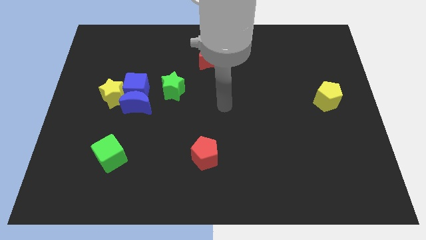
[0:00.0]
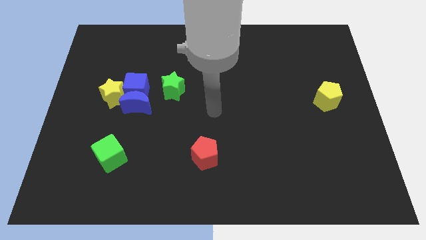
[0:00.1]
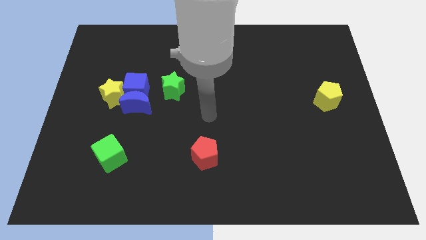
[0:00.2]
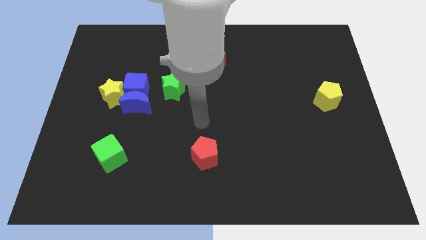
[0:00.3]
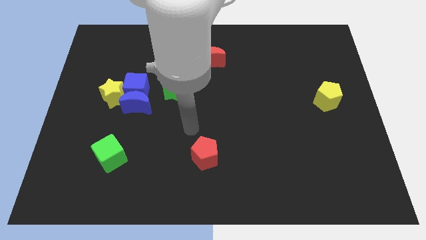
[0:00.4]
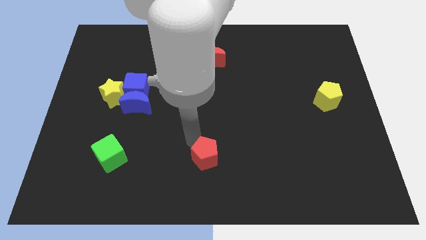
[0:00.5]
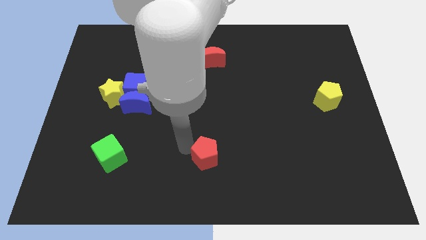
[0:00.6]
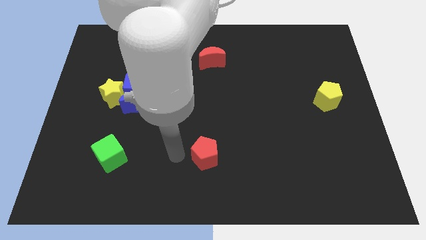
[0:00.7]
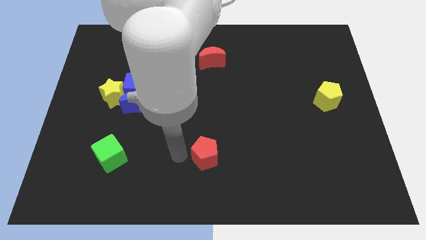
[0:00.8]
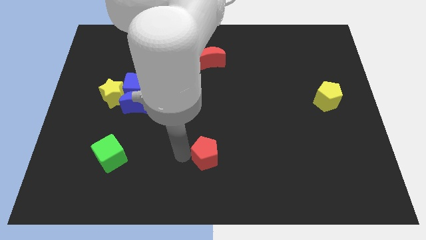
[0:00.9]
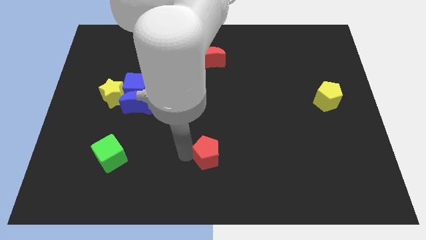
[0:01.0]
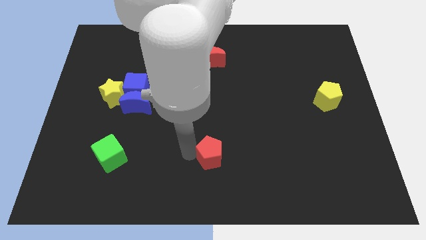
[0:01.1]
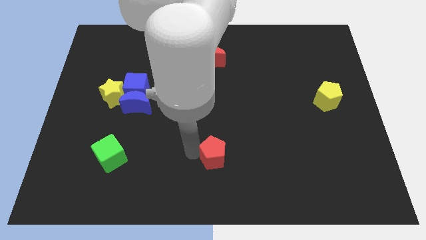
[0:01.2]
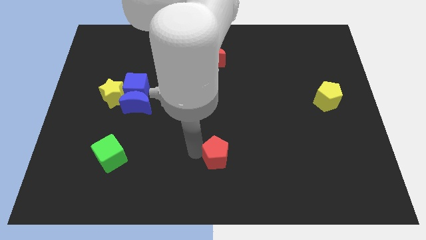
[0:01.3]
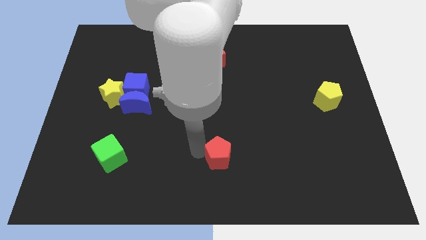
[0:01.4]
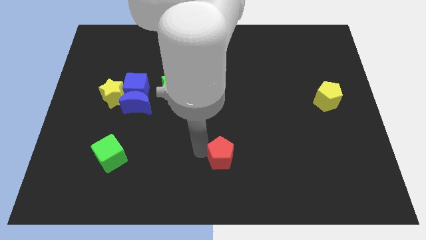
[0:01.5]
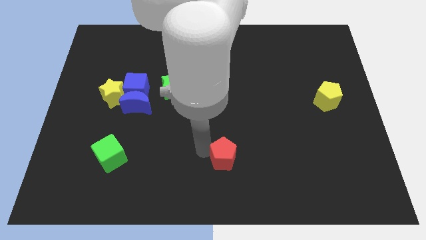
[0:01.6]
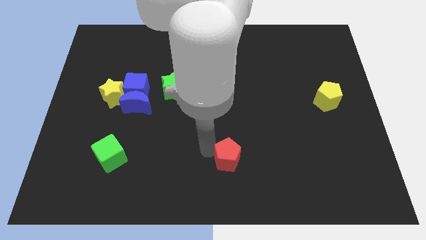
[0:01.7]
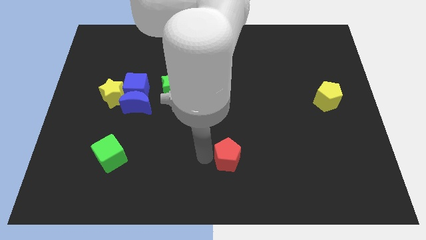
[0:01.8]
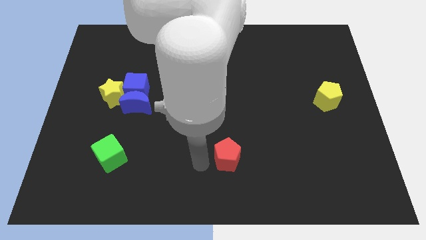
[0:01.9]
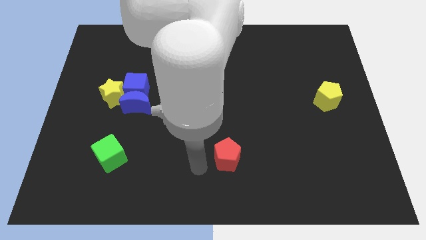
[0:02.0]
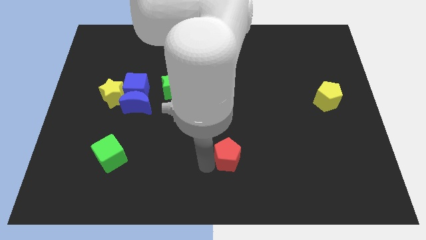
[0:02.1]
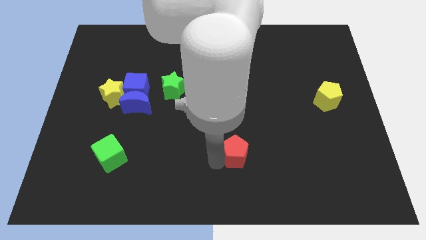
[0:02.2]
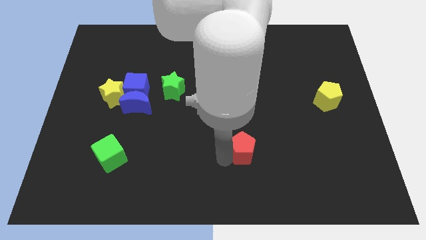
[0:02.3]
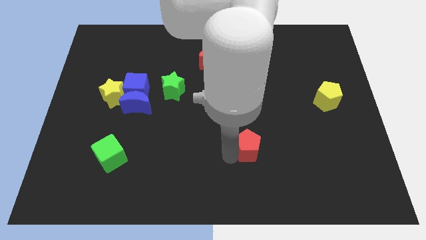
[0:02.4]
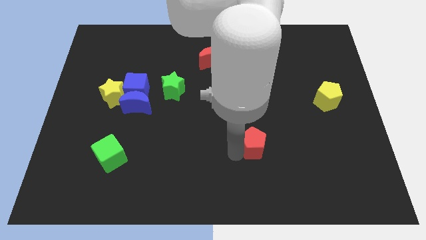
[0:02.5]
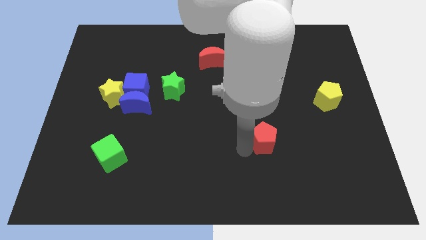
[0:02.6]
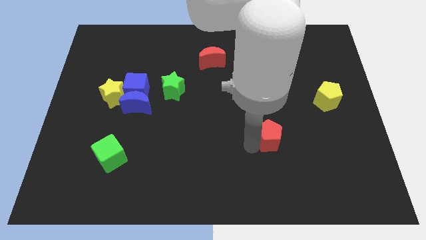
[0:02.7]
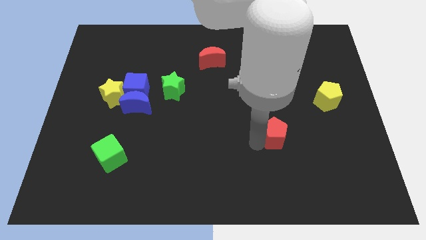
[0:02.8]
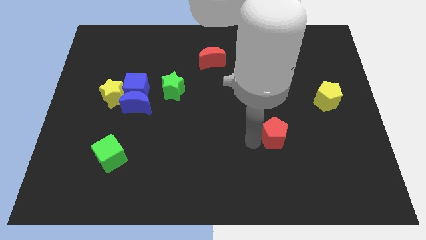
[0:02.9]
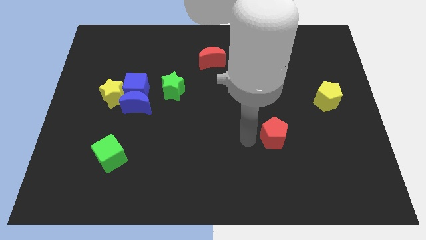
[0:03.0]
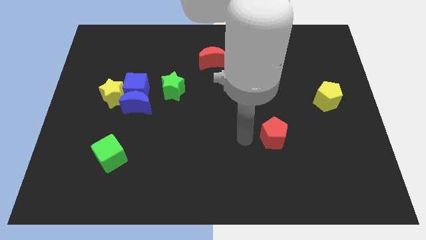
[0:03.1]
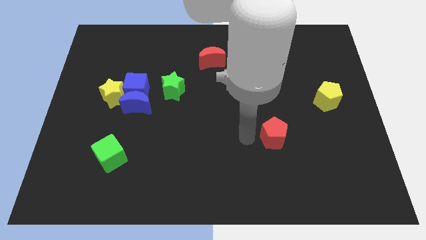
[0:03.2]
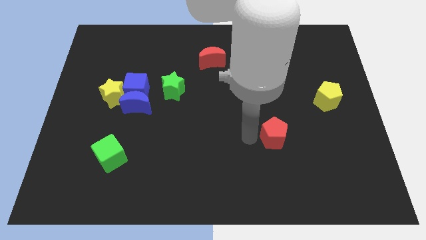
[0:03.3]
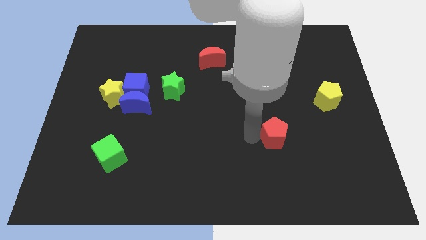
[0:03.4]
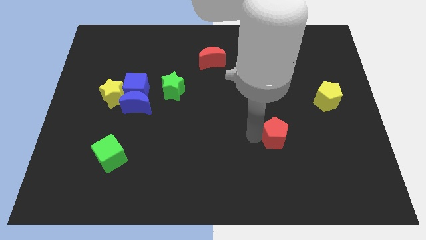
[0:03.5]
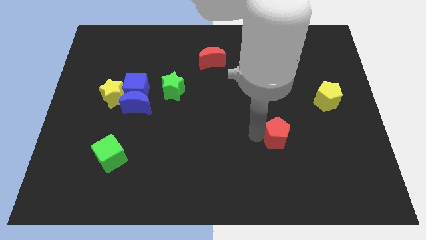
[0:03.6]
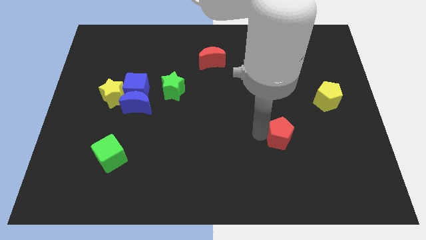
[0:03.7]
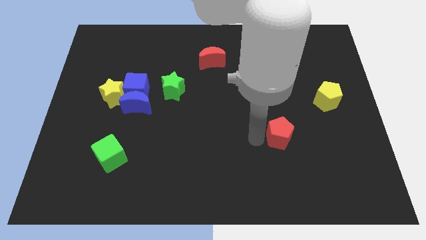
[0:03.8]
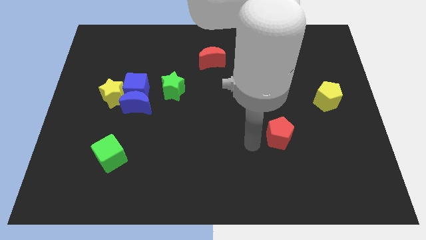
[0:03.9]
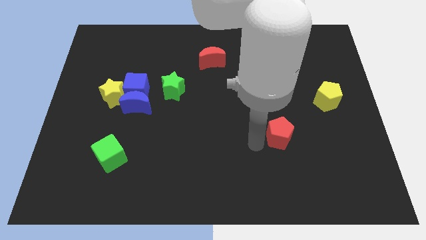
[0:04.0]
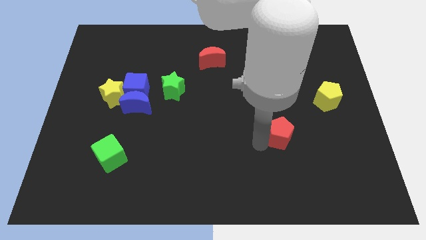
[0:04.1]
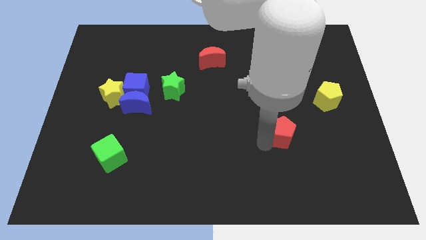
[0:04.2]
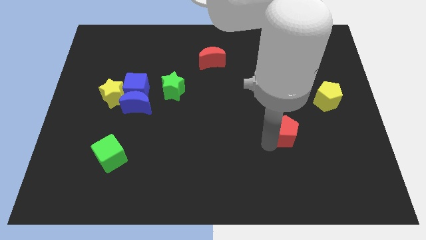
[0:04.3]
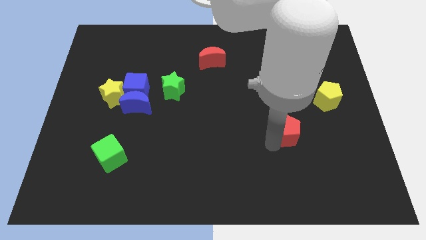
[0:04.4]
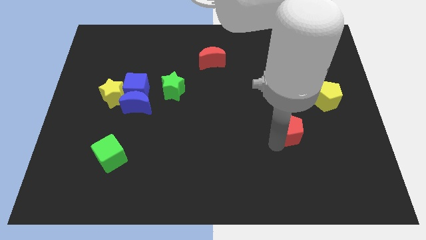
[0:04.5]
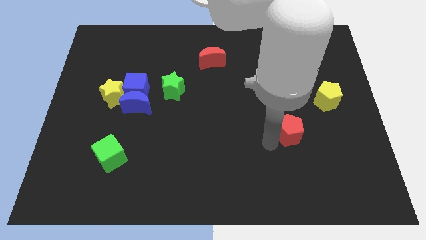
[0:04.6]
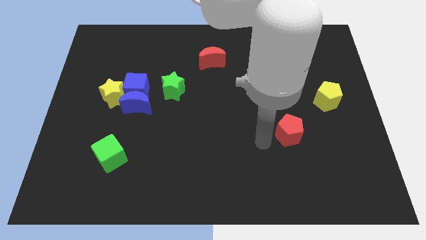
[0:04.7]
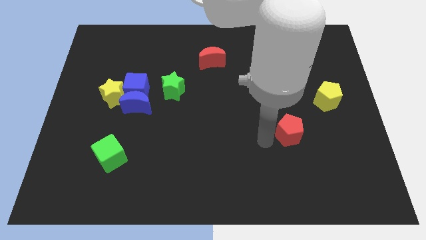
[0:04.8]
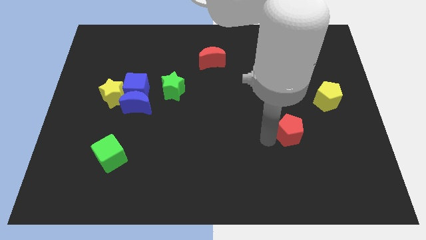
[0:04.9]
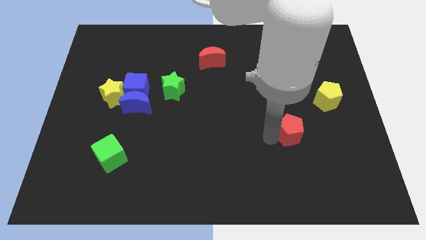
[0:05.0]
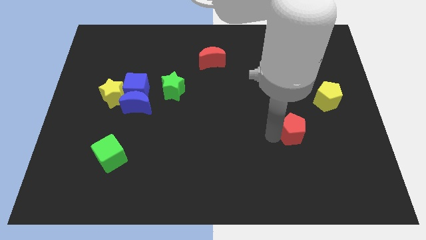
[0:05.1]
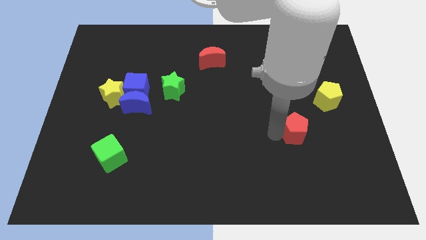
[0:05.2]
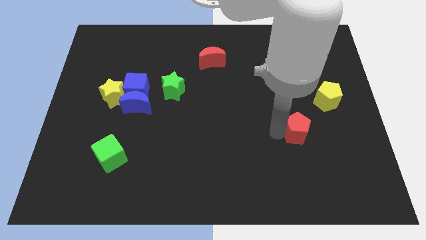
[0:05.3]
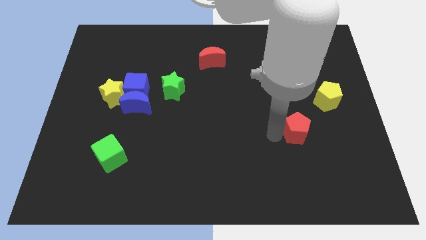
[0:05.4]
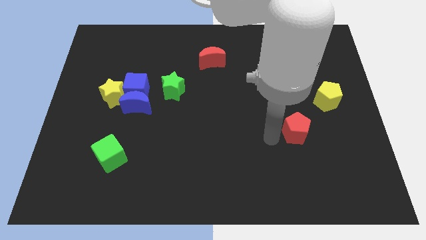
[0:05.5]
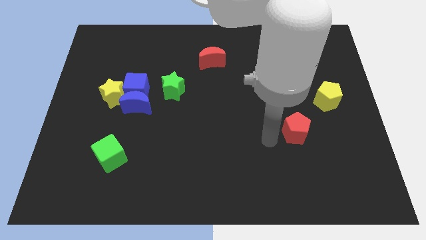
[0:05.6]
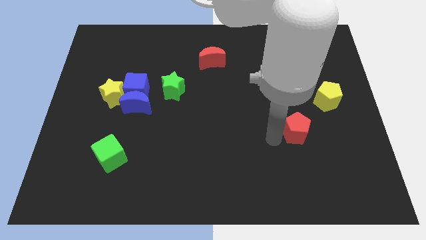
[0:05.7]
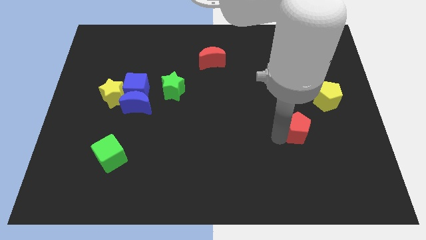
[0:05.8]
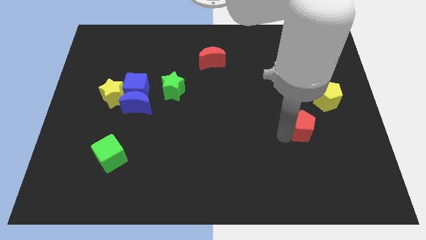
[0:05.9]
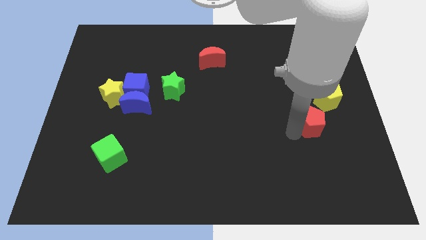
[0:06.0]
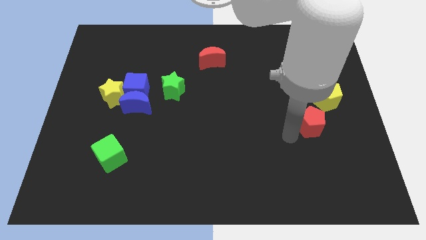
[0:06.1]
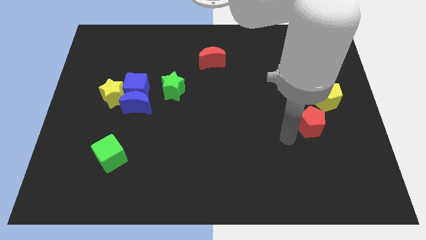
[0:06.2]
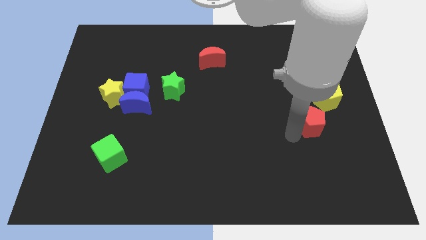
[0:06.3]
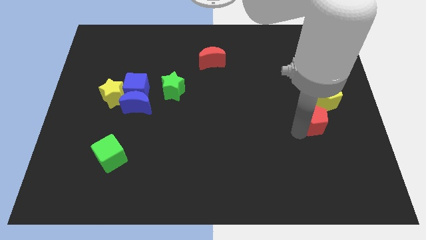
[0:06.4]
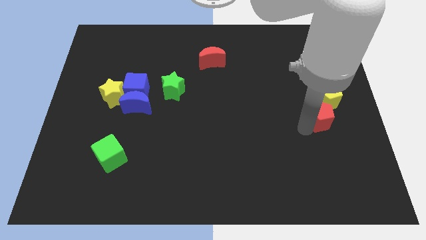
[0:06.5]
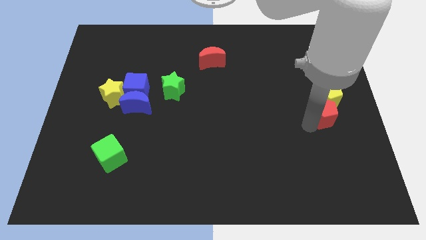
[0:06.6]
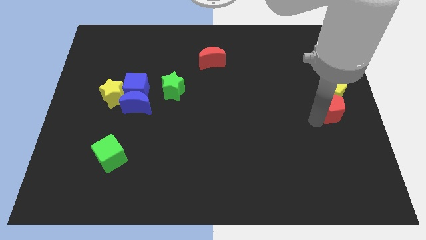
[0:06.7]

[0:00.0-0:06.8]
slide the red pentagon to the right side
